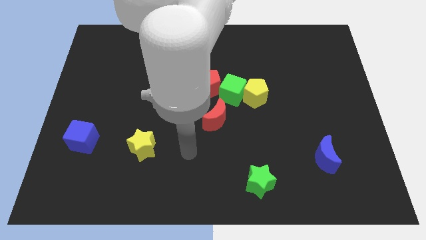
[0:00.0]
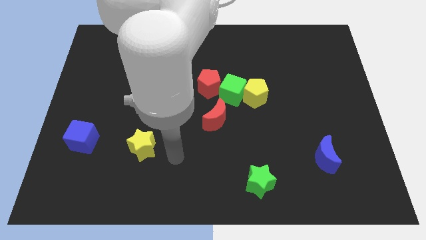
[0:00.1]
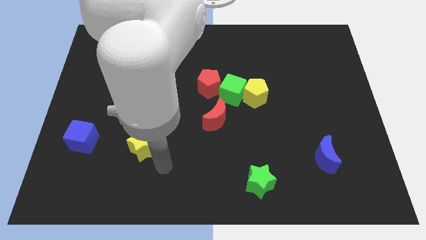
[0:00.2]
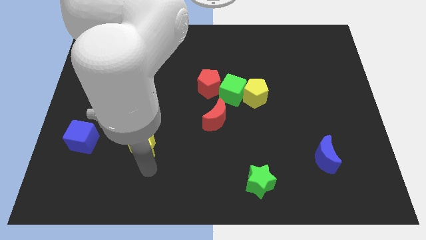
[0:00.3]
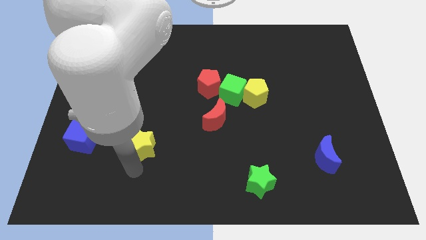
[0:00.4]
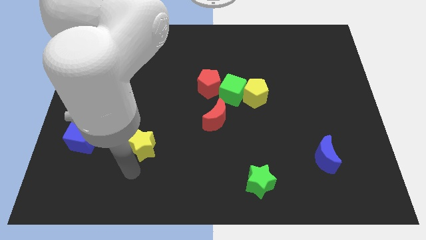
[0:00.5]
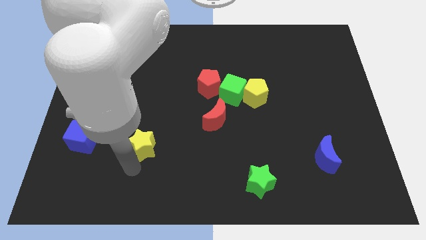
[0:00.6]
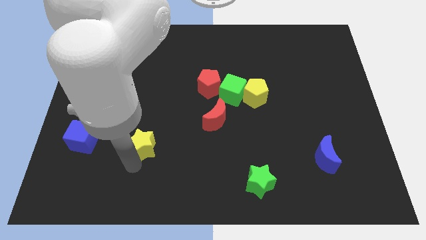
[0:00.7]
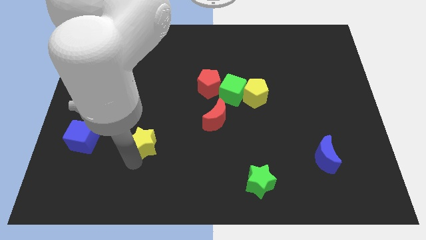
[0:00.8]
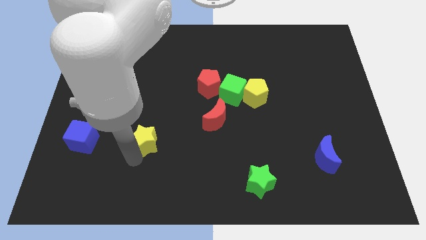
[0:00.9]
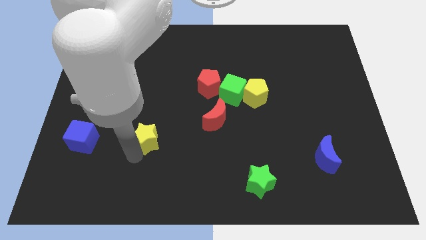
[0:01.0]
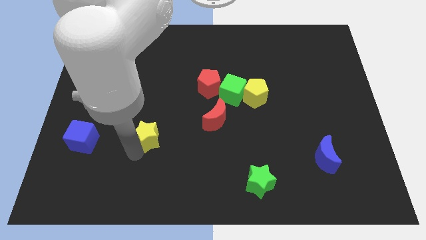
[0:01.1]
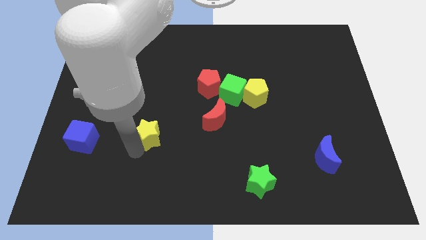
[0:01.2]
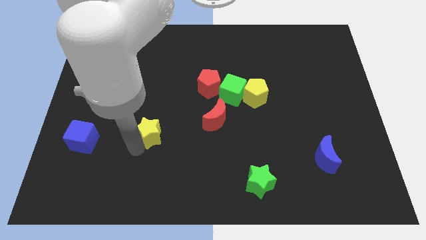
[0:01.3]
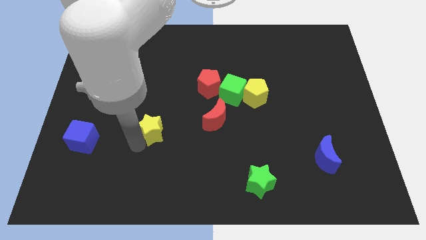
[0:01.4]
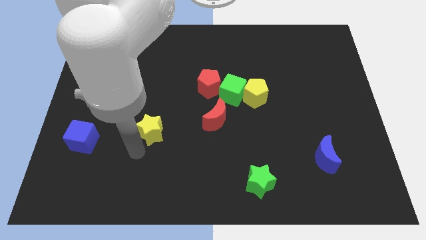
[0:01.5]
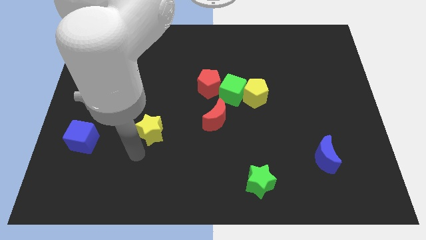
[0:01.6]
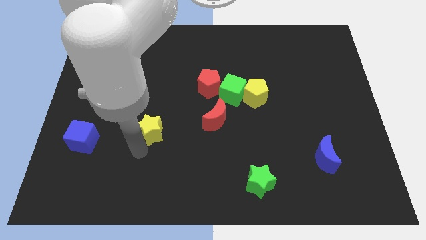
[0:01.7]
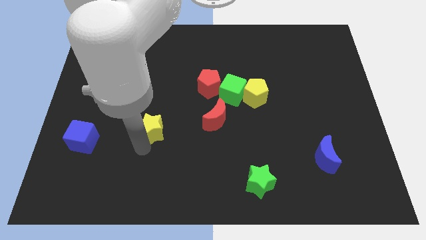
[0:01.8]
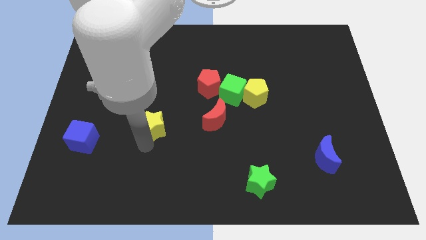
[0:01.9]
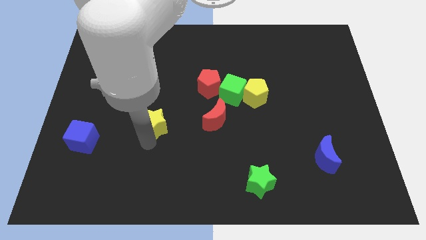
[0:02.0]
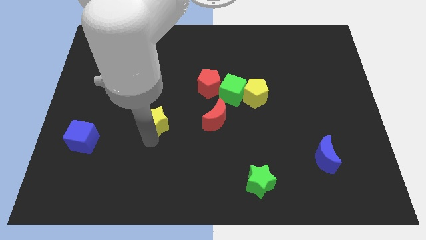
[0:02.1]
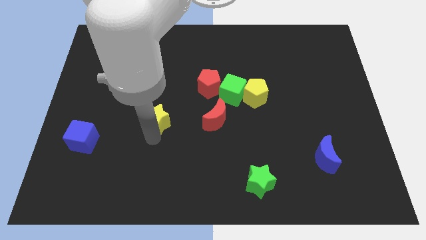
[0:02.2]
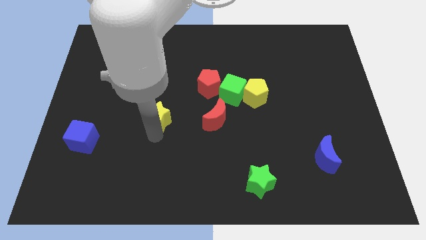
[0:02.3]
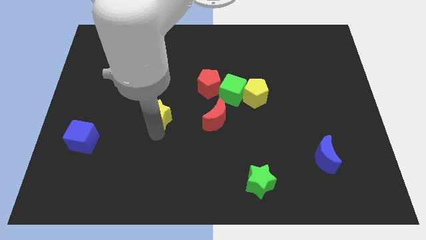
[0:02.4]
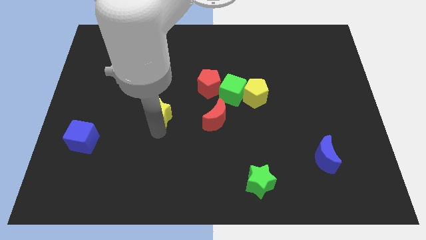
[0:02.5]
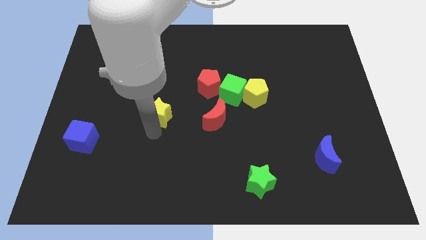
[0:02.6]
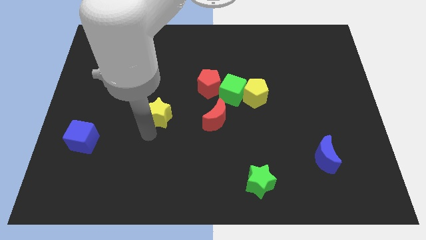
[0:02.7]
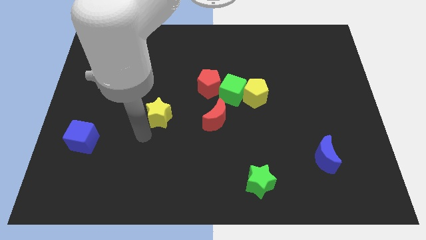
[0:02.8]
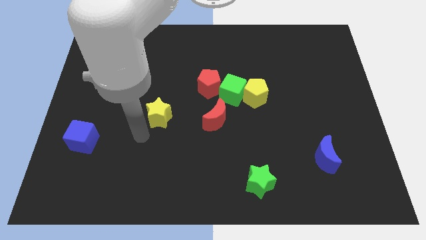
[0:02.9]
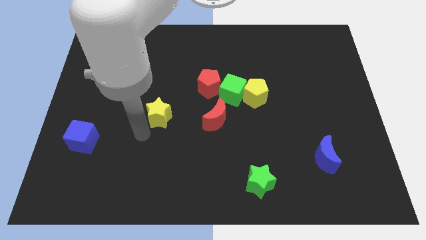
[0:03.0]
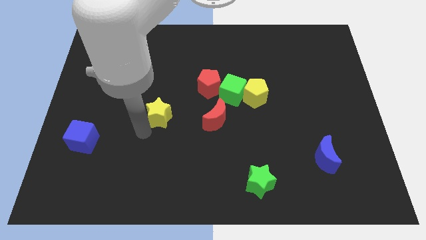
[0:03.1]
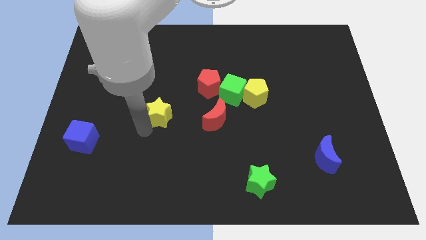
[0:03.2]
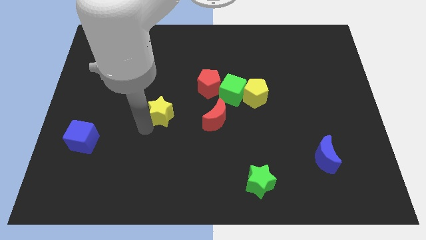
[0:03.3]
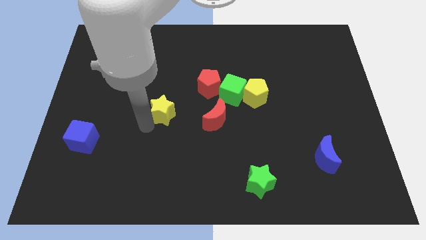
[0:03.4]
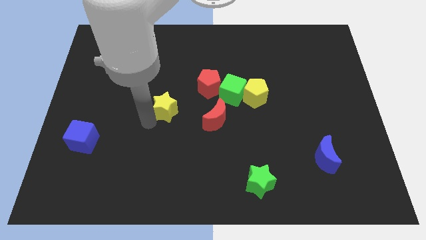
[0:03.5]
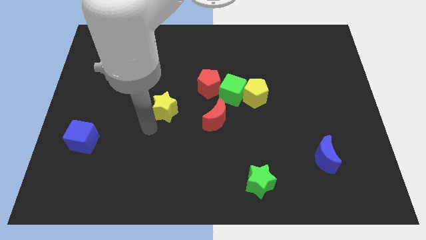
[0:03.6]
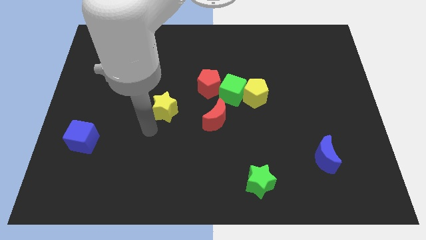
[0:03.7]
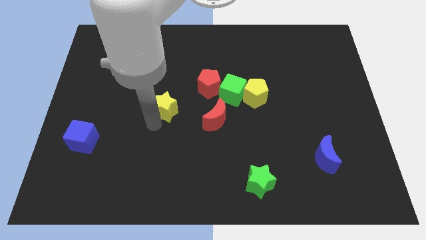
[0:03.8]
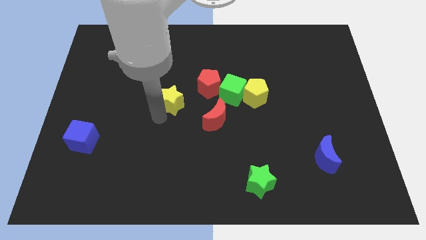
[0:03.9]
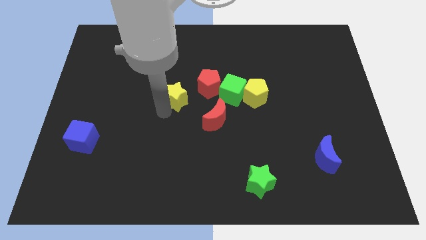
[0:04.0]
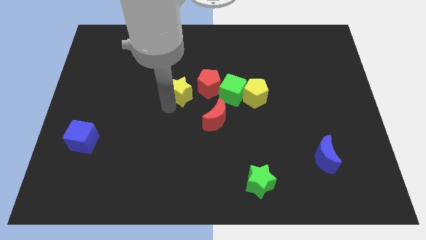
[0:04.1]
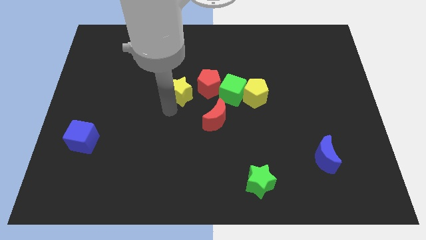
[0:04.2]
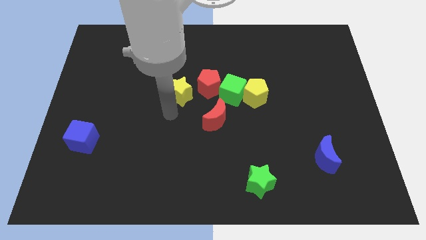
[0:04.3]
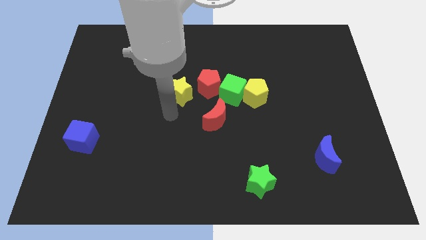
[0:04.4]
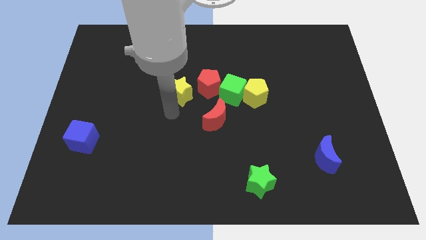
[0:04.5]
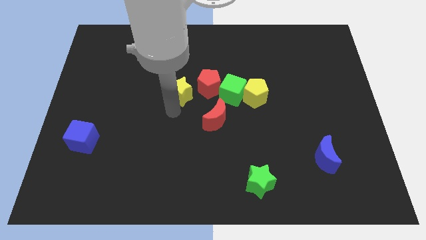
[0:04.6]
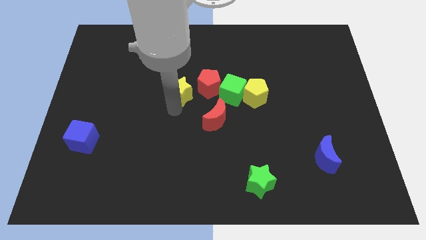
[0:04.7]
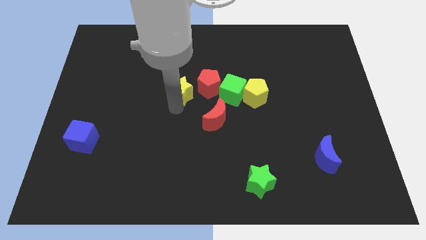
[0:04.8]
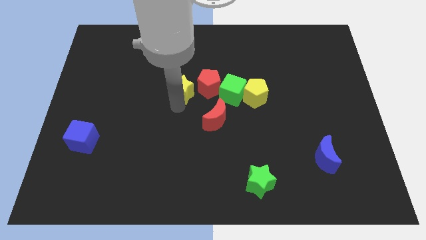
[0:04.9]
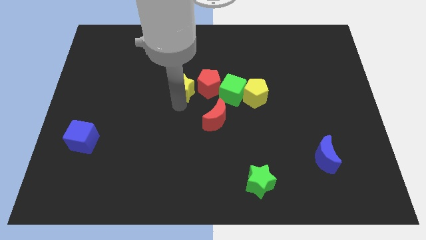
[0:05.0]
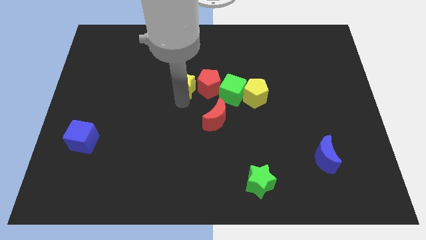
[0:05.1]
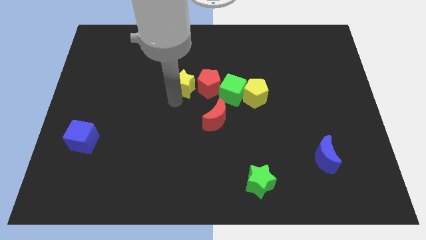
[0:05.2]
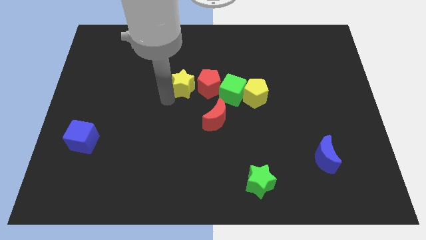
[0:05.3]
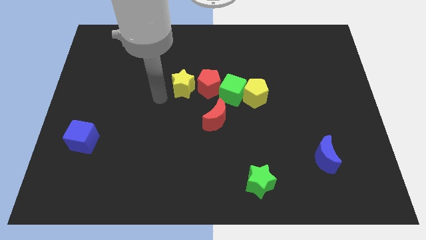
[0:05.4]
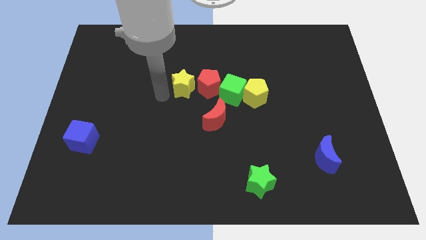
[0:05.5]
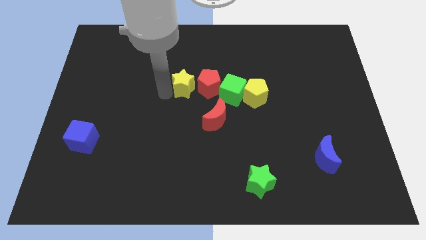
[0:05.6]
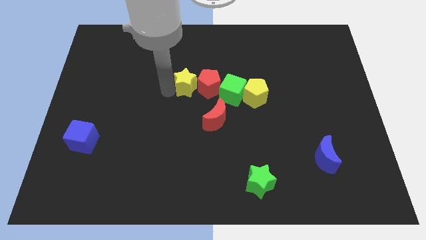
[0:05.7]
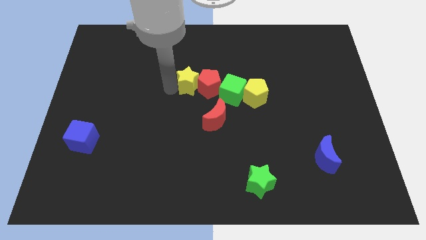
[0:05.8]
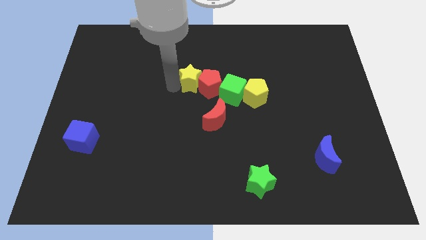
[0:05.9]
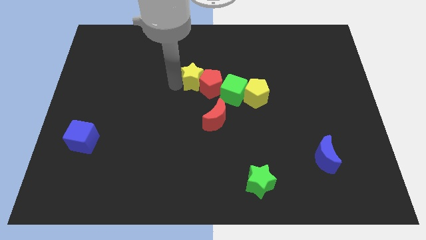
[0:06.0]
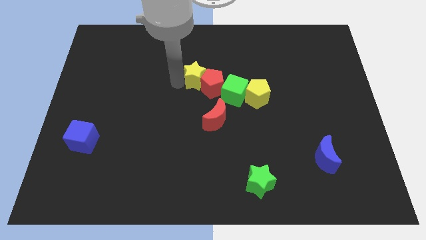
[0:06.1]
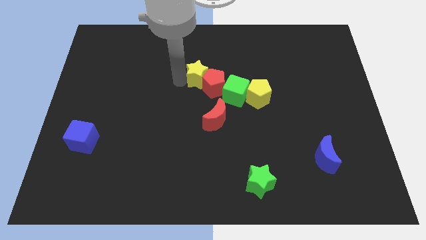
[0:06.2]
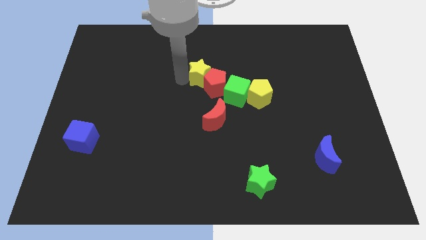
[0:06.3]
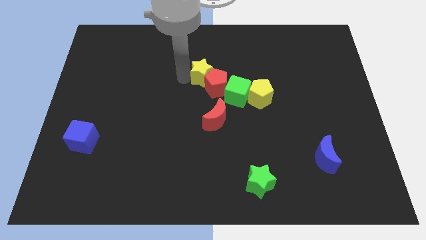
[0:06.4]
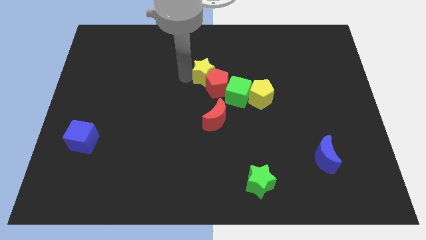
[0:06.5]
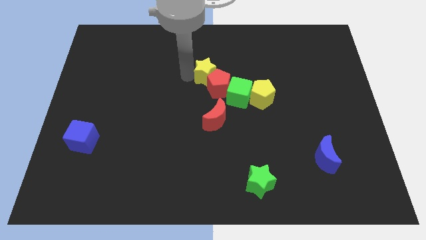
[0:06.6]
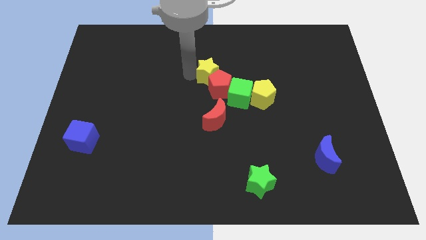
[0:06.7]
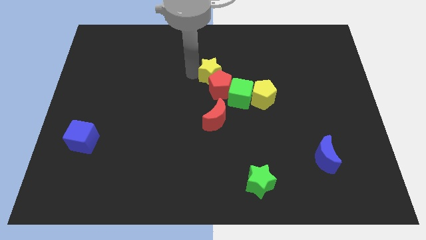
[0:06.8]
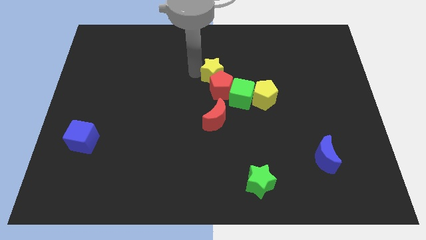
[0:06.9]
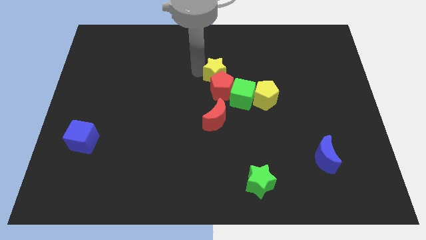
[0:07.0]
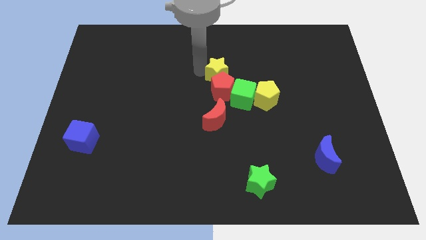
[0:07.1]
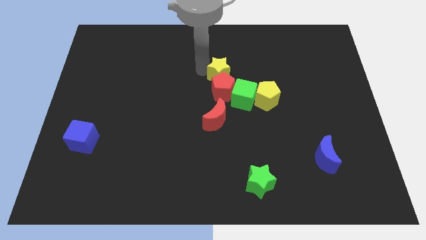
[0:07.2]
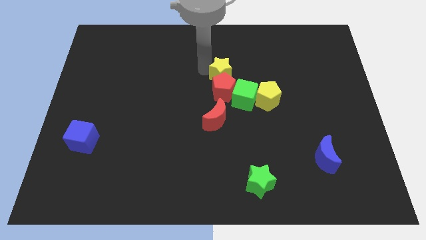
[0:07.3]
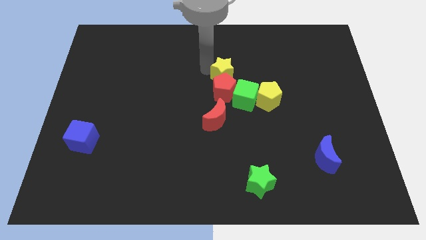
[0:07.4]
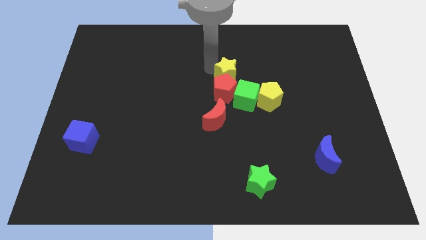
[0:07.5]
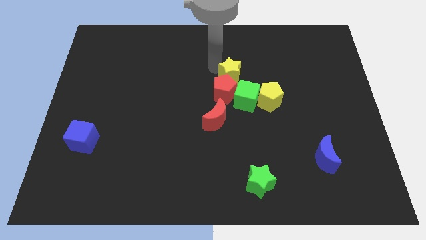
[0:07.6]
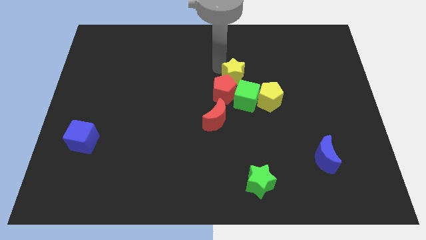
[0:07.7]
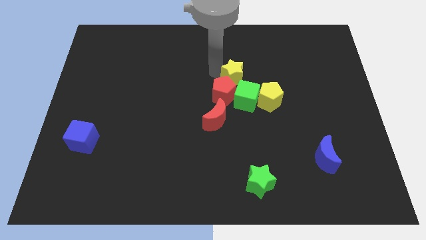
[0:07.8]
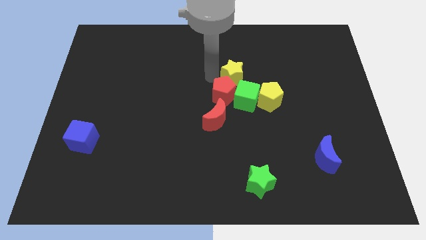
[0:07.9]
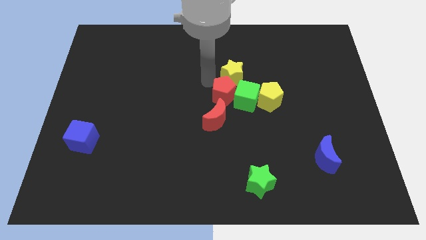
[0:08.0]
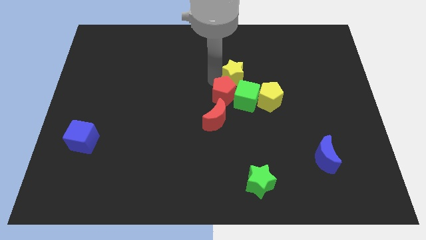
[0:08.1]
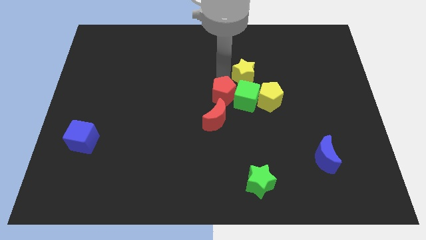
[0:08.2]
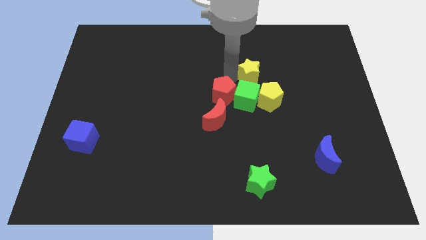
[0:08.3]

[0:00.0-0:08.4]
put the yellow star above the yellow pentagon
